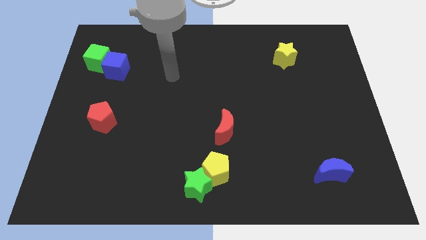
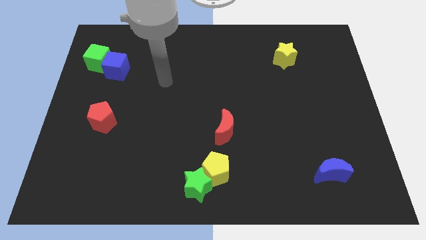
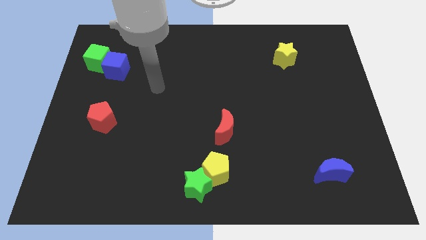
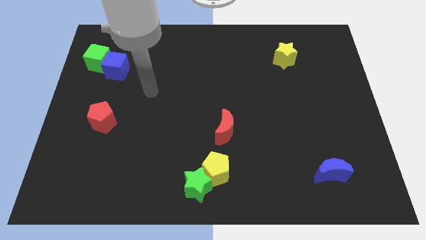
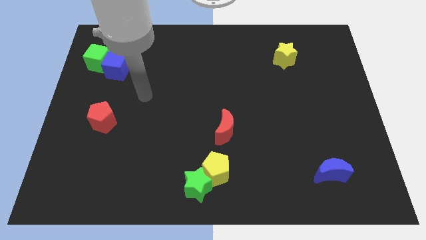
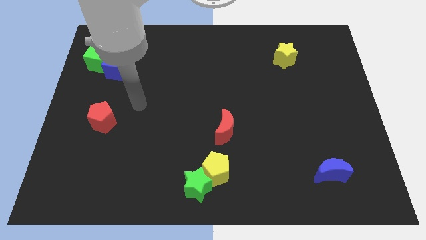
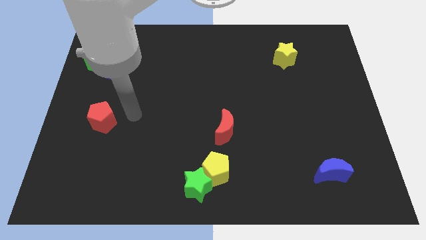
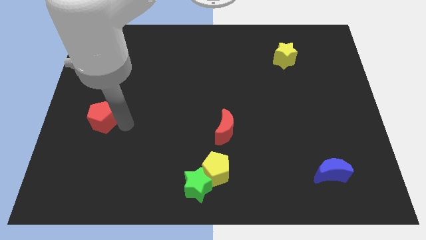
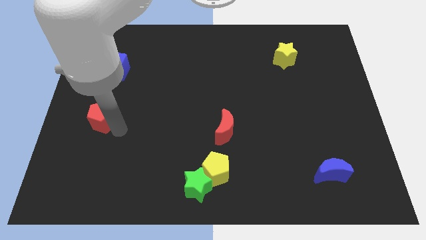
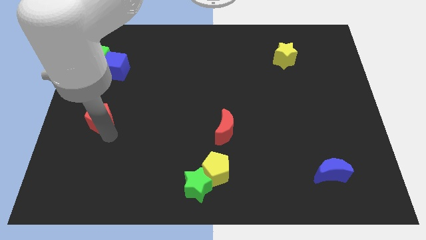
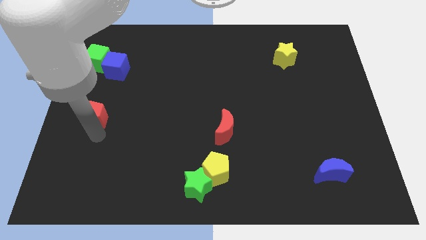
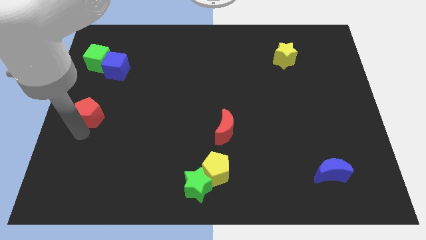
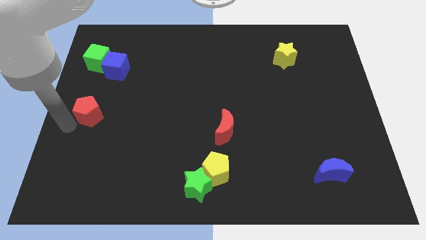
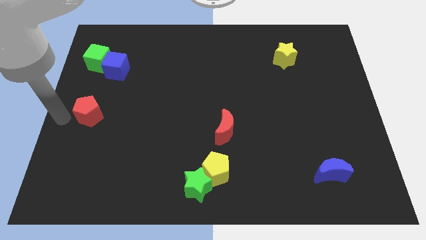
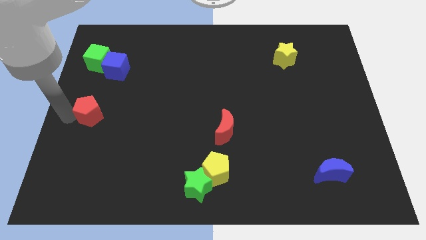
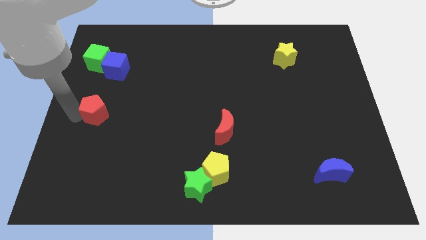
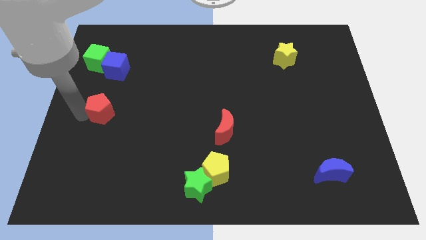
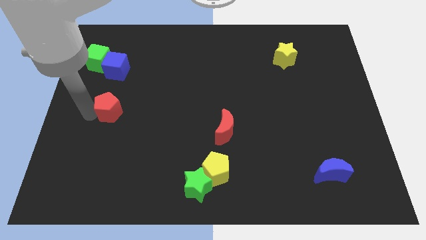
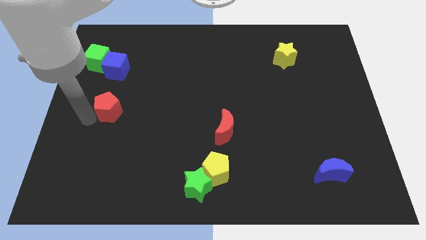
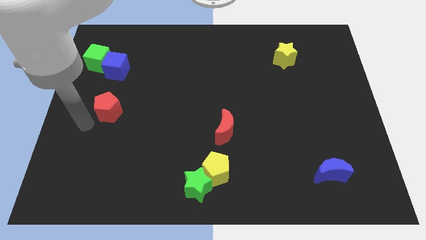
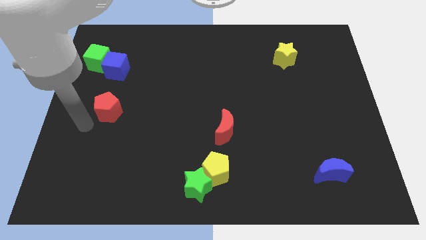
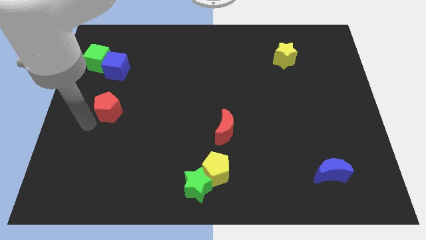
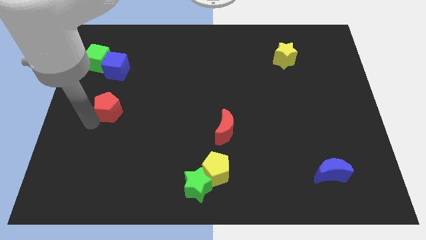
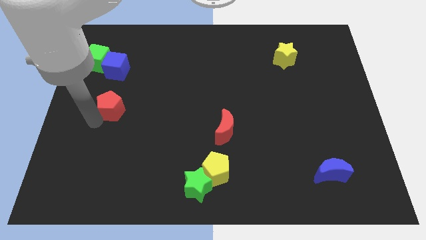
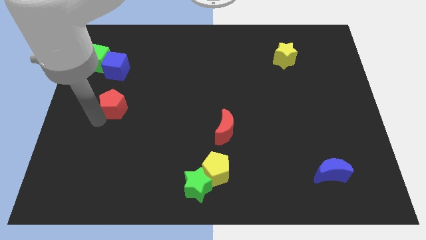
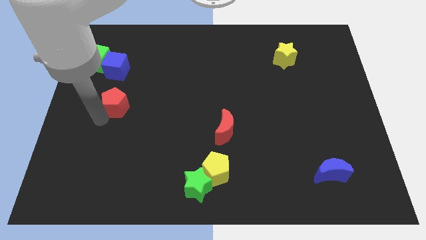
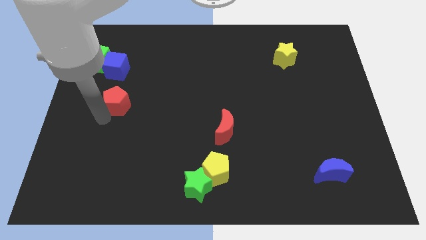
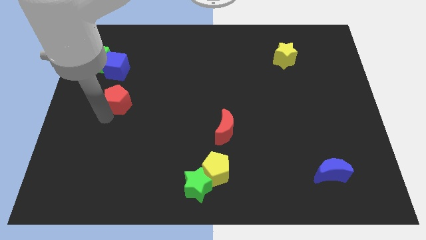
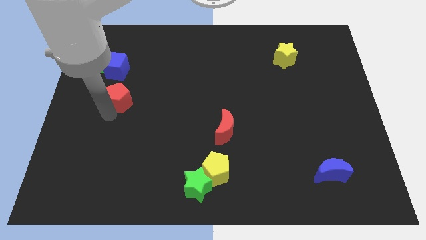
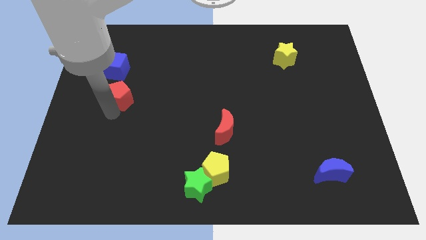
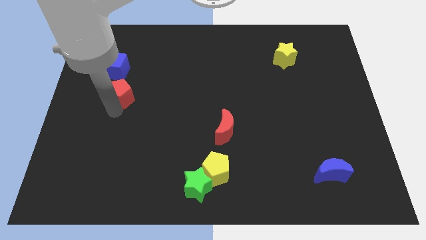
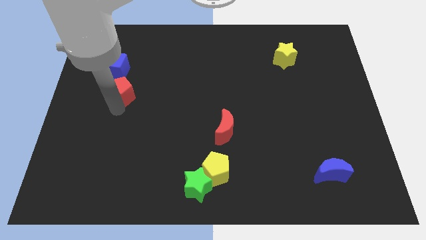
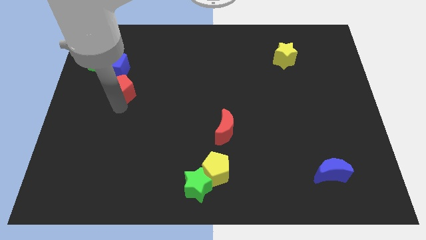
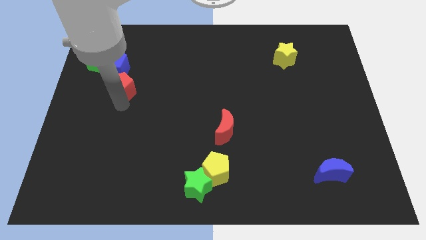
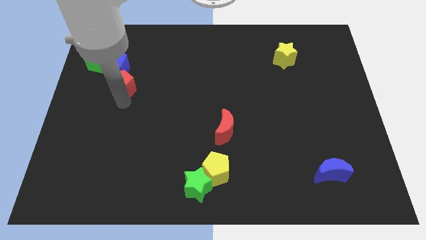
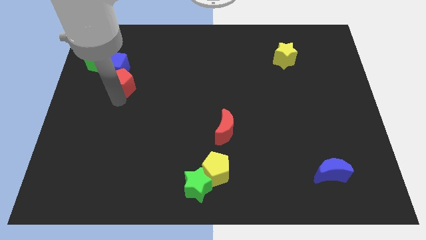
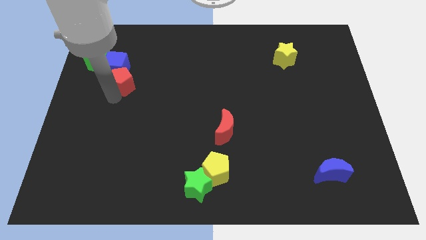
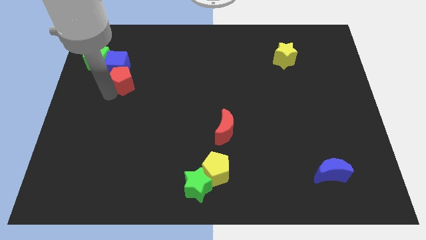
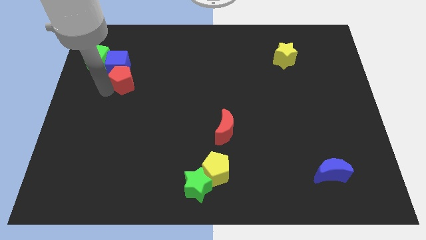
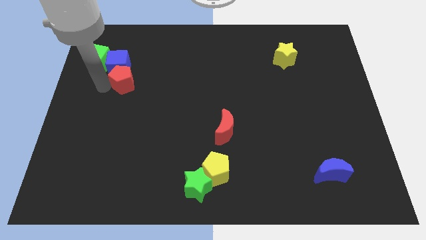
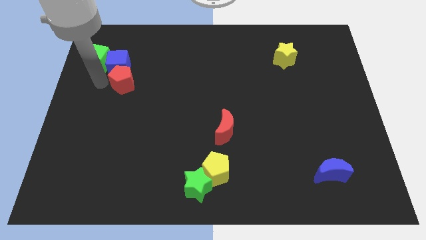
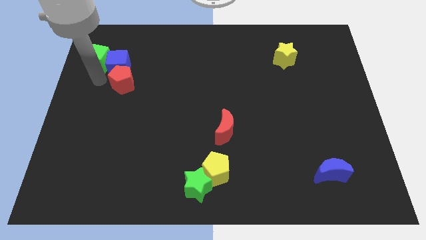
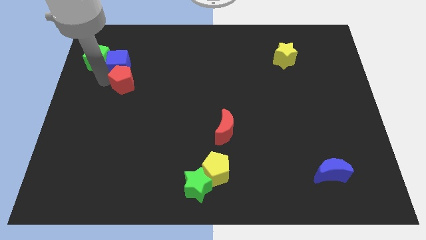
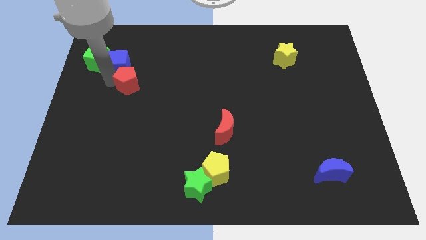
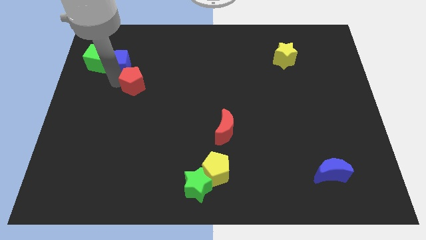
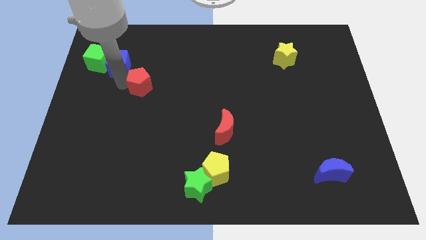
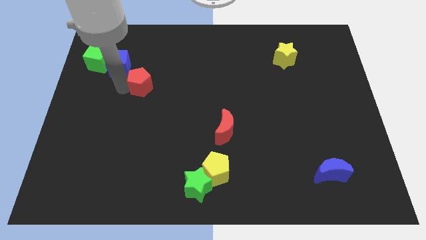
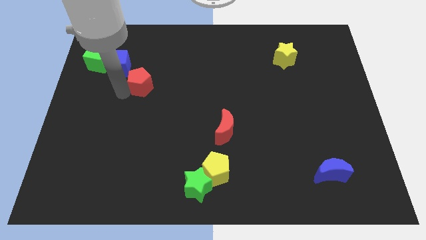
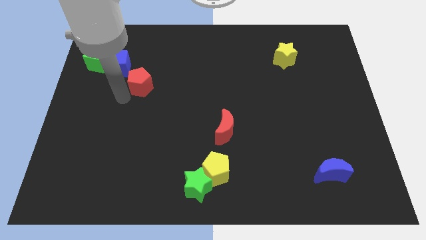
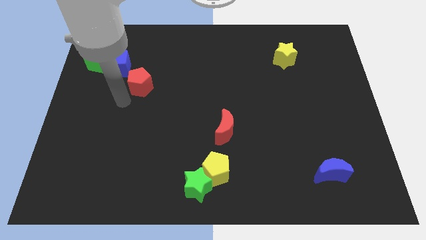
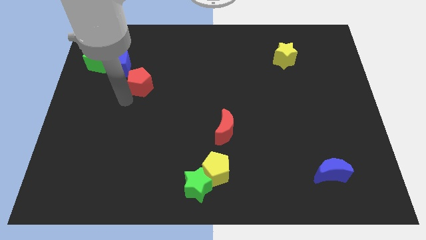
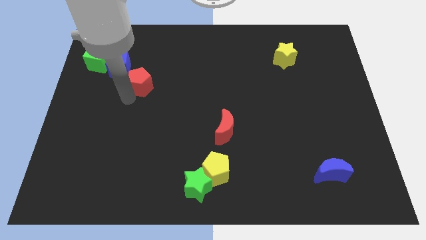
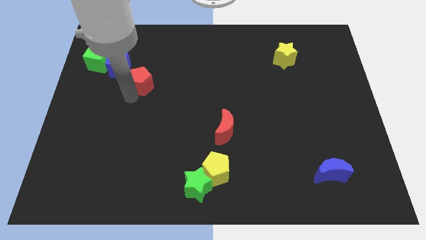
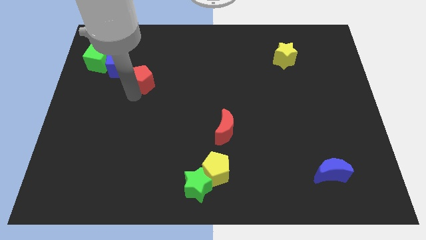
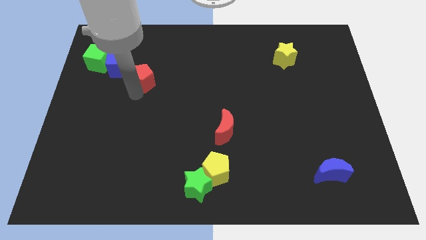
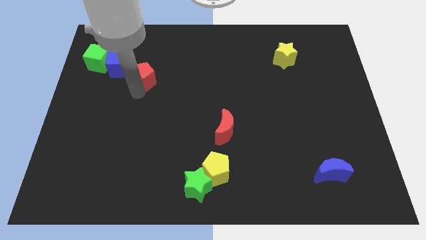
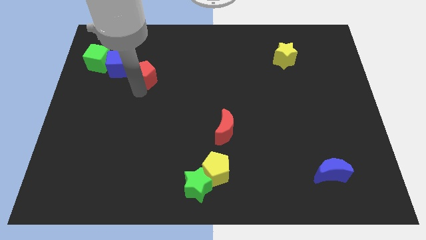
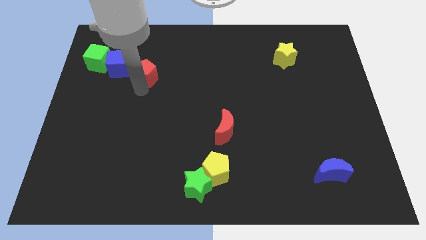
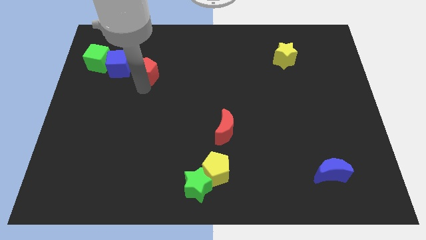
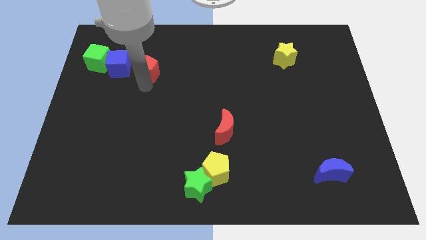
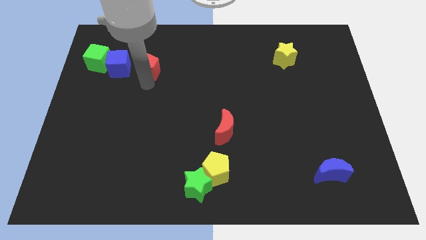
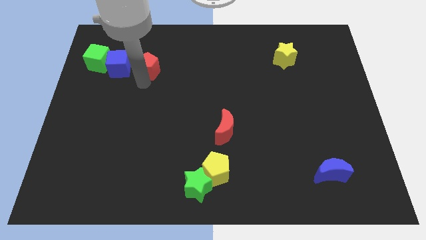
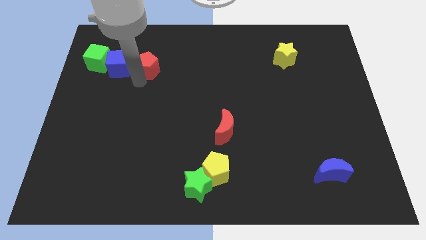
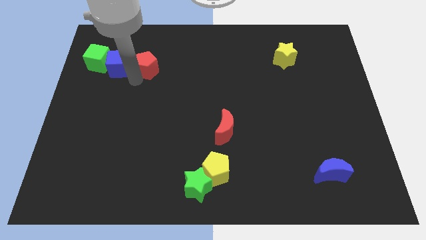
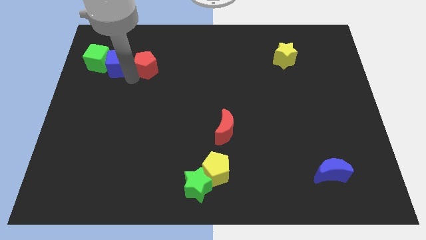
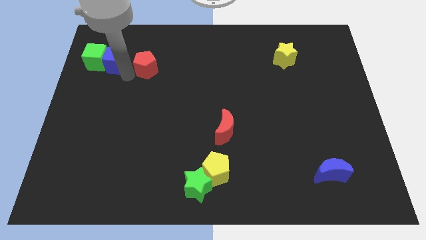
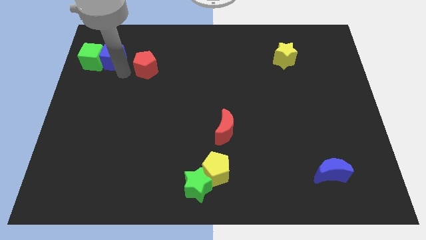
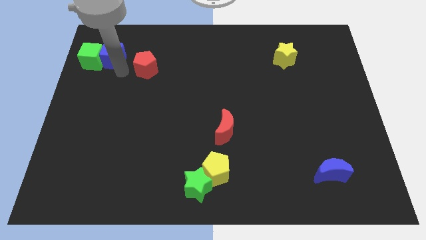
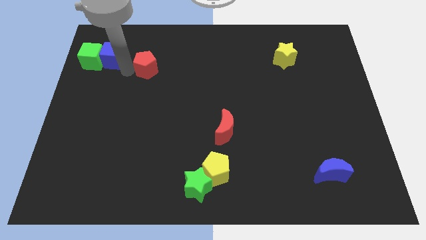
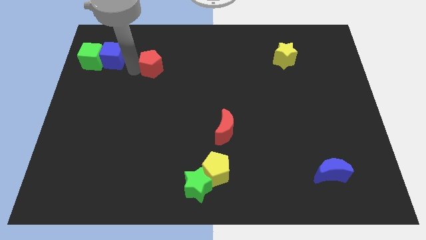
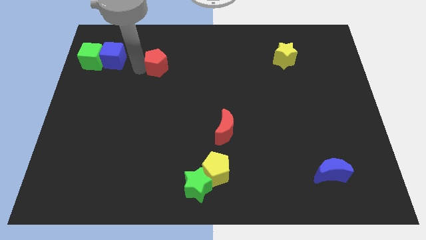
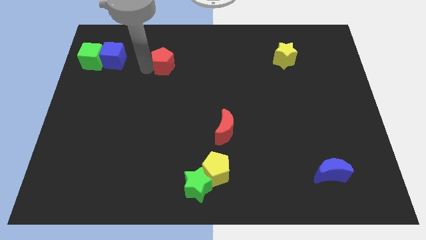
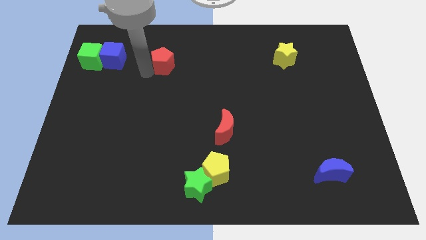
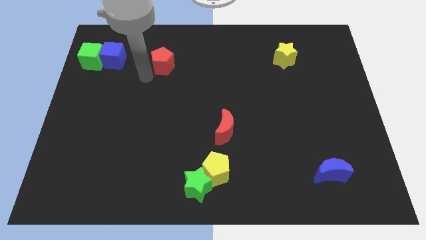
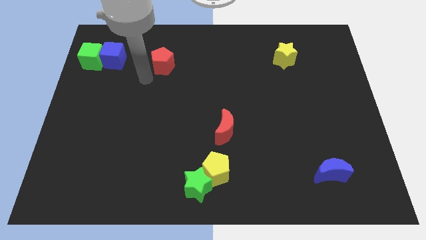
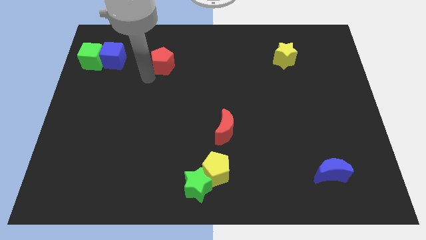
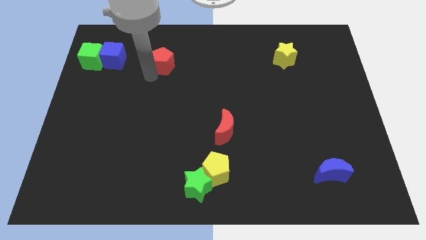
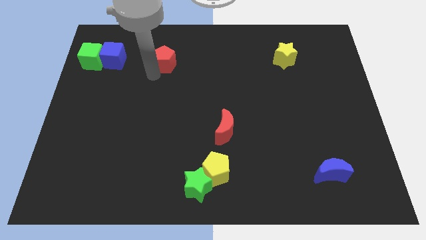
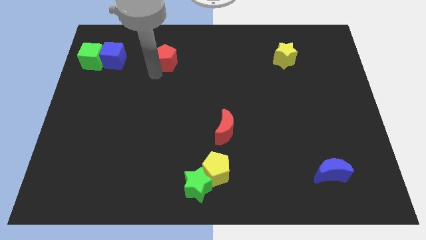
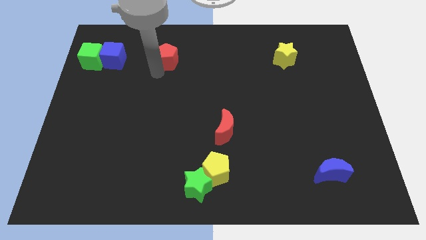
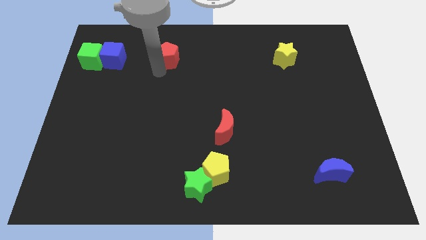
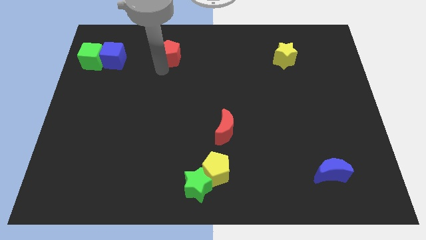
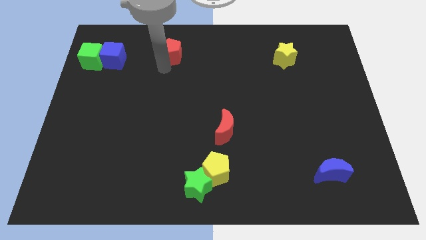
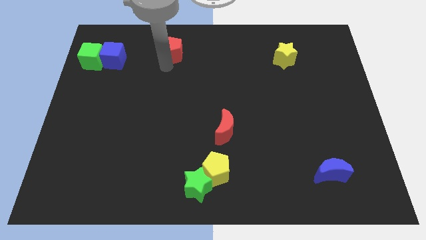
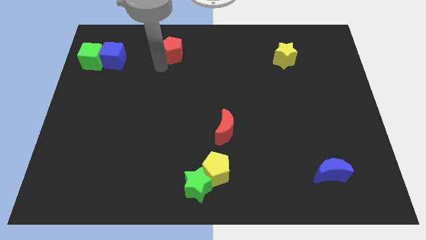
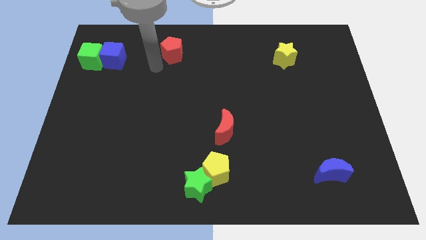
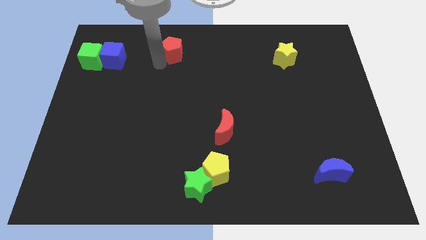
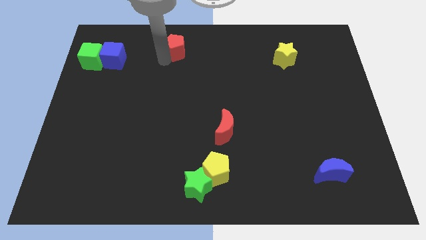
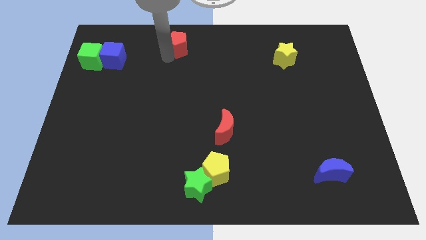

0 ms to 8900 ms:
move the red pentagon to the top side
